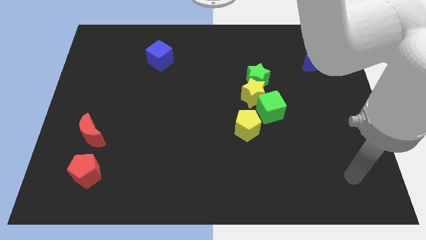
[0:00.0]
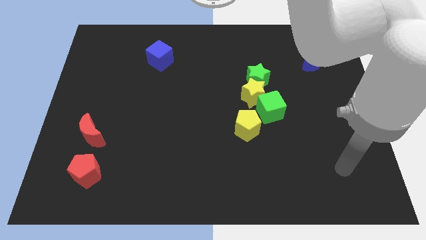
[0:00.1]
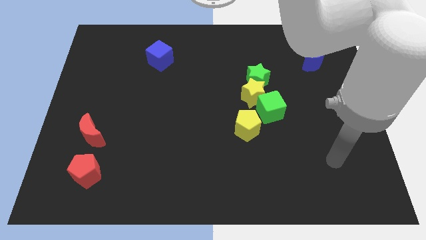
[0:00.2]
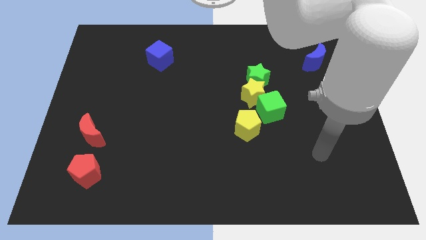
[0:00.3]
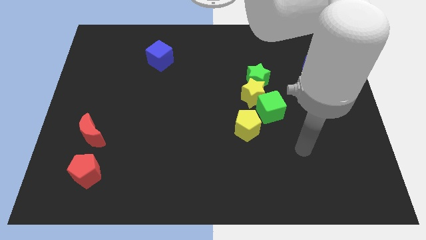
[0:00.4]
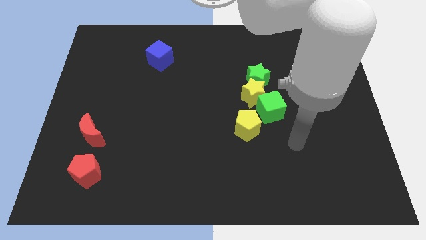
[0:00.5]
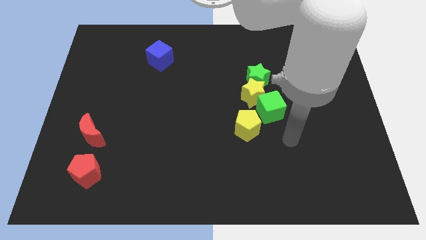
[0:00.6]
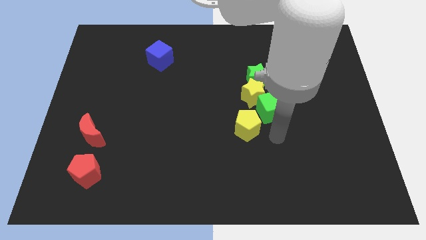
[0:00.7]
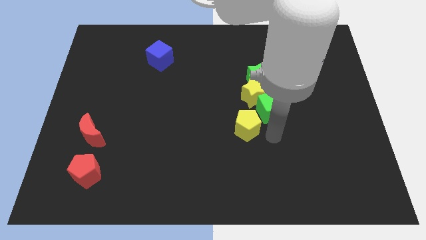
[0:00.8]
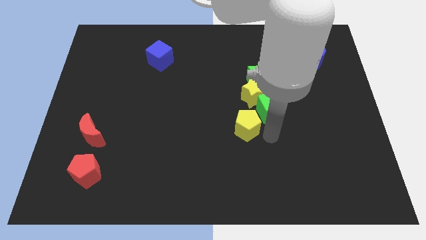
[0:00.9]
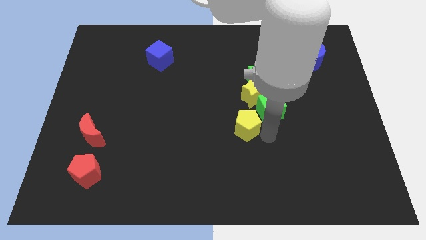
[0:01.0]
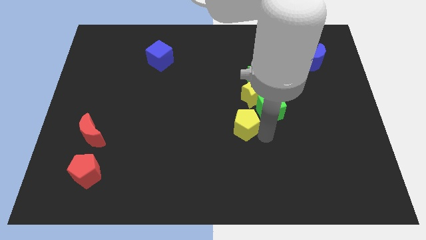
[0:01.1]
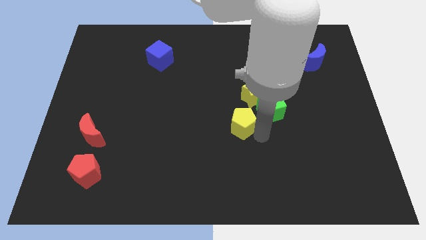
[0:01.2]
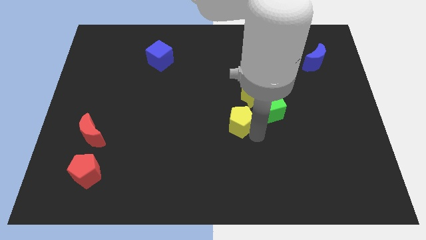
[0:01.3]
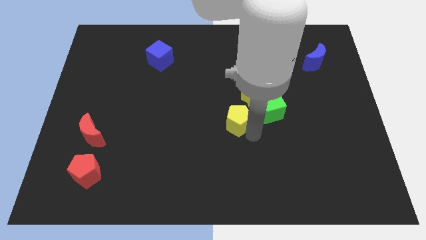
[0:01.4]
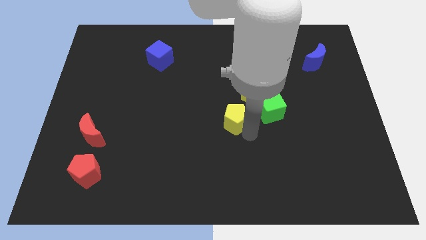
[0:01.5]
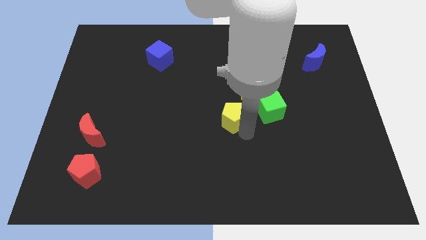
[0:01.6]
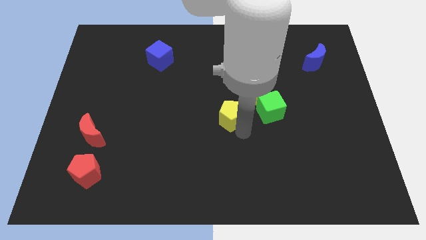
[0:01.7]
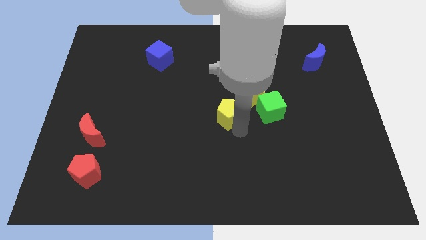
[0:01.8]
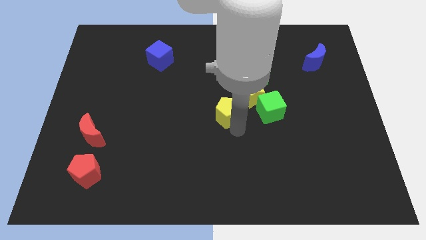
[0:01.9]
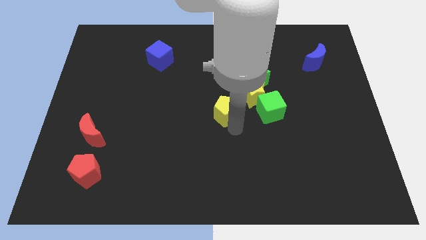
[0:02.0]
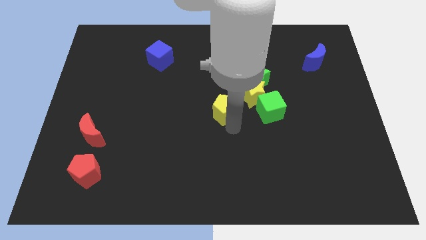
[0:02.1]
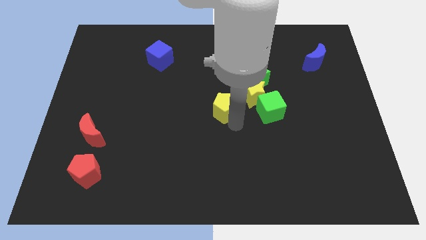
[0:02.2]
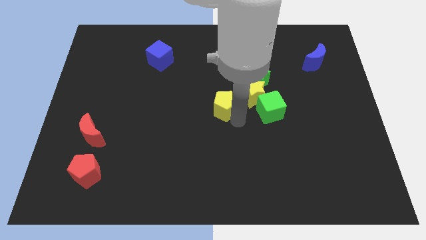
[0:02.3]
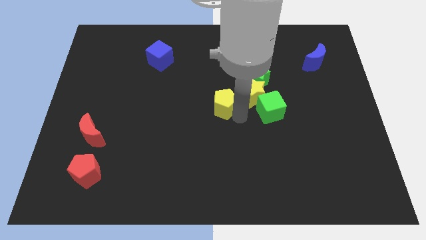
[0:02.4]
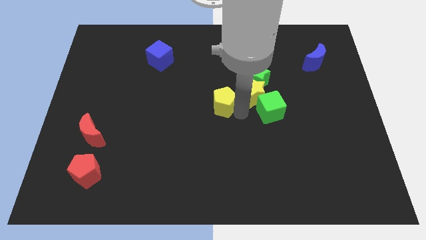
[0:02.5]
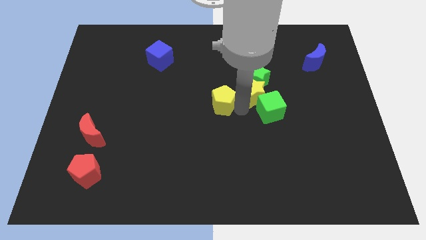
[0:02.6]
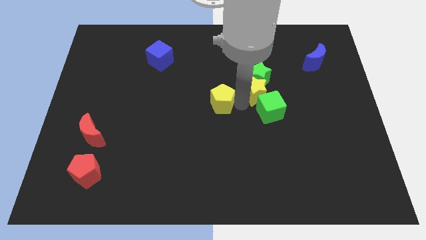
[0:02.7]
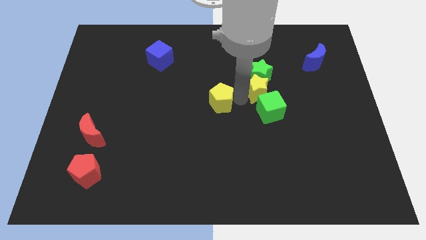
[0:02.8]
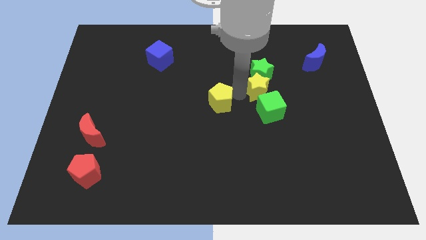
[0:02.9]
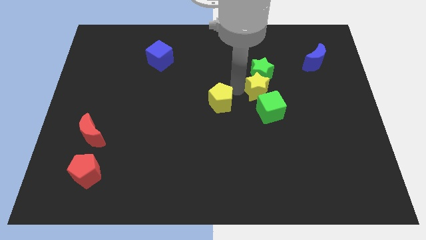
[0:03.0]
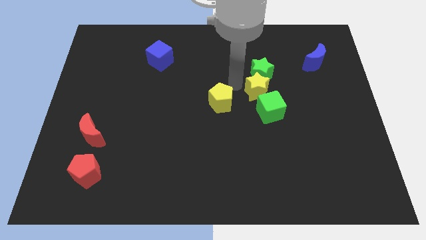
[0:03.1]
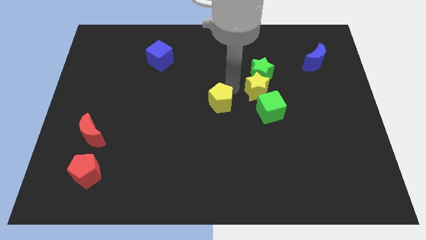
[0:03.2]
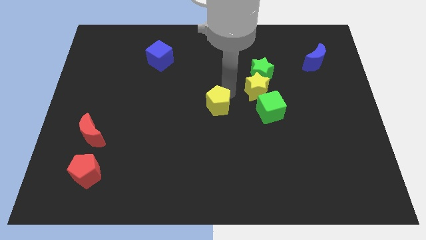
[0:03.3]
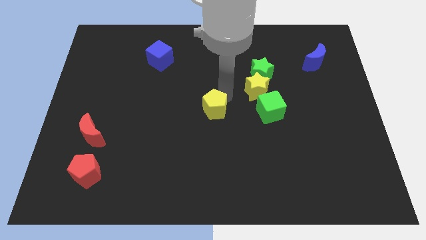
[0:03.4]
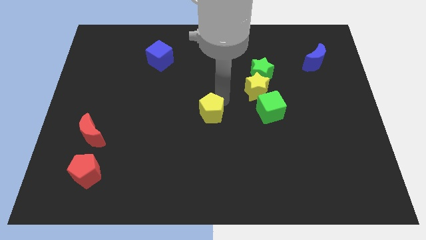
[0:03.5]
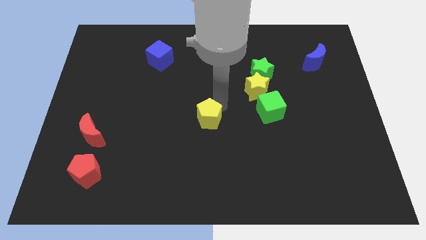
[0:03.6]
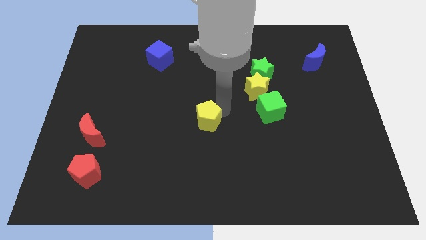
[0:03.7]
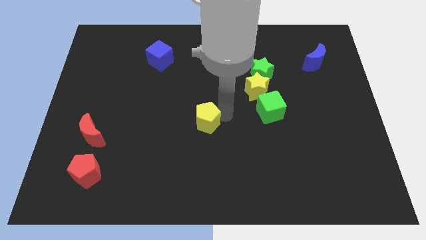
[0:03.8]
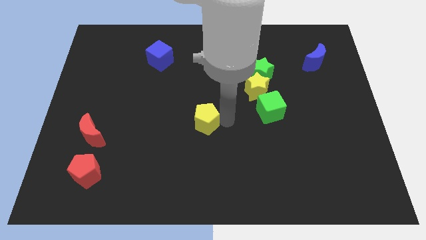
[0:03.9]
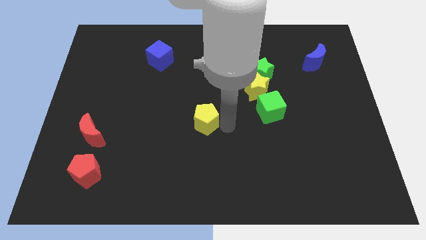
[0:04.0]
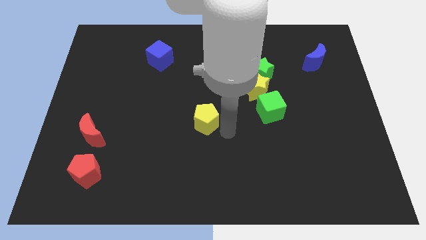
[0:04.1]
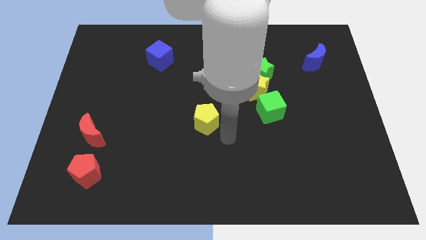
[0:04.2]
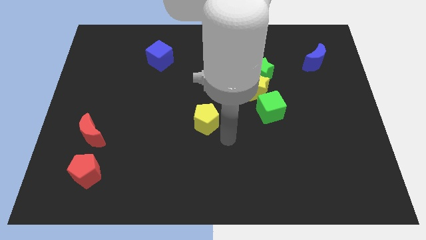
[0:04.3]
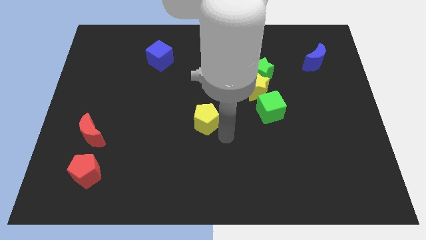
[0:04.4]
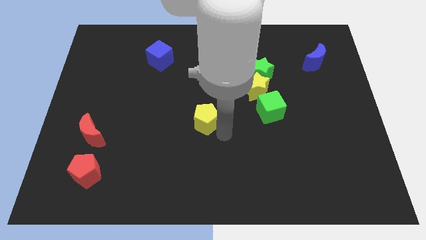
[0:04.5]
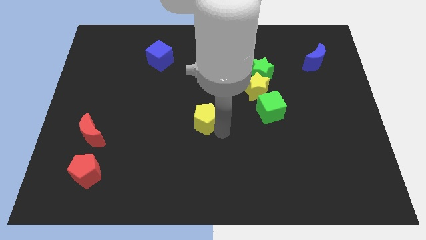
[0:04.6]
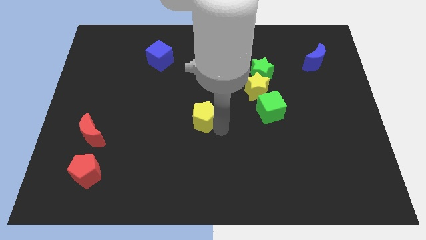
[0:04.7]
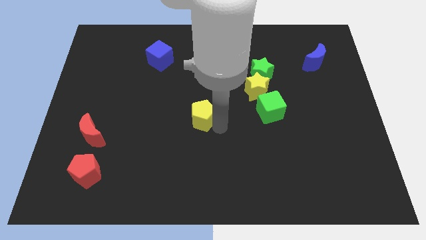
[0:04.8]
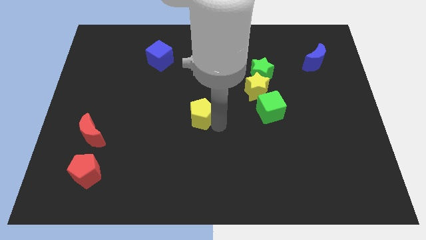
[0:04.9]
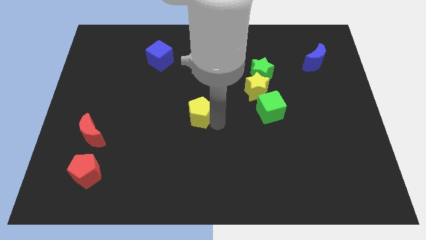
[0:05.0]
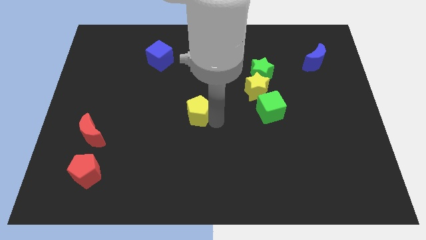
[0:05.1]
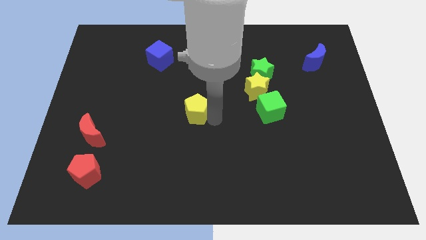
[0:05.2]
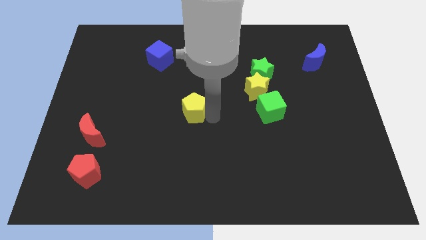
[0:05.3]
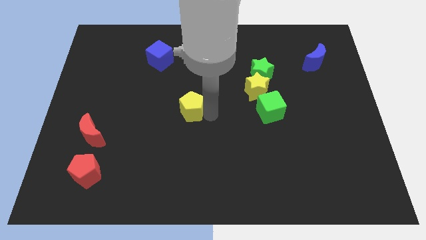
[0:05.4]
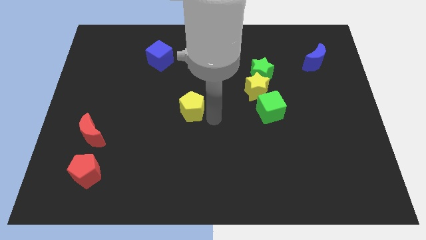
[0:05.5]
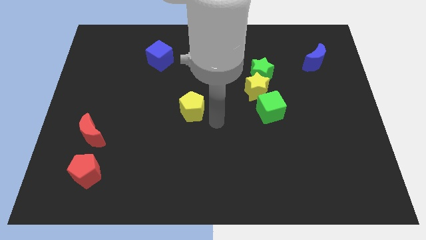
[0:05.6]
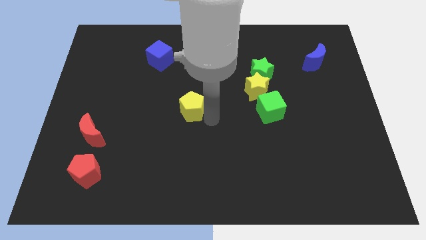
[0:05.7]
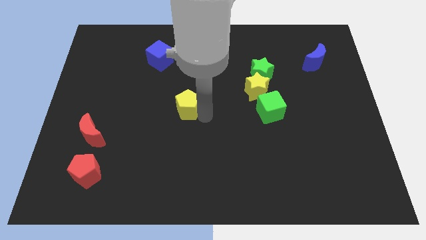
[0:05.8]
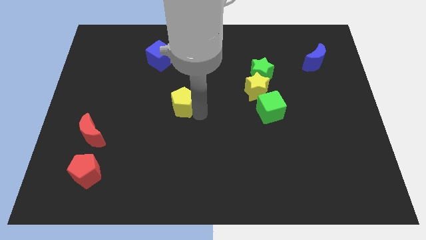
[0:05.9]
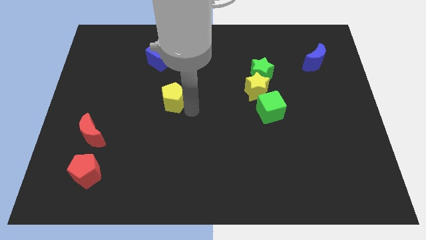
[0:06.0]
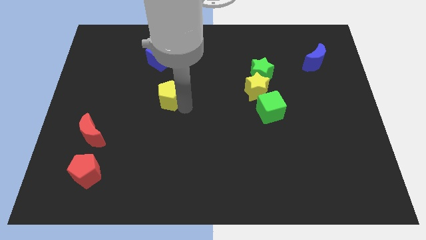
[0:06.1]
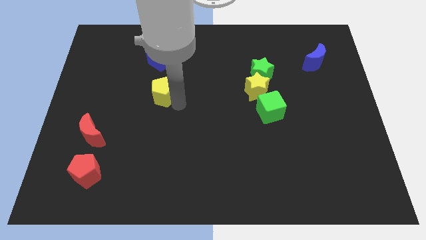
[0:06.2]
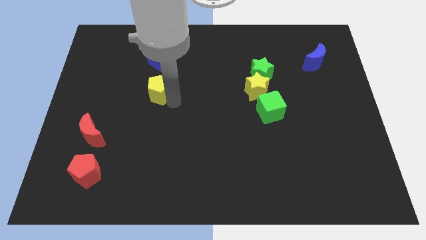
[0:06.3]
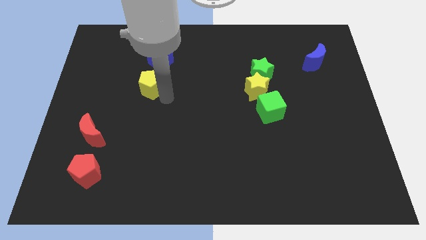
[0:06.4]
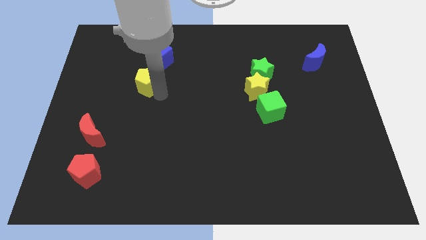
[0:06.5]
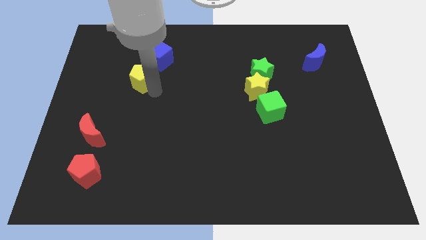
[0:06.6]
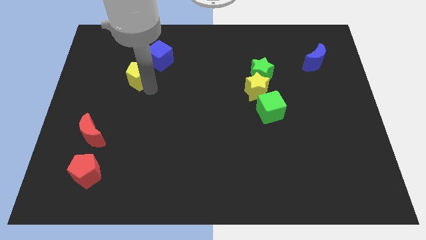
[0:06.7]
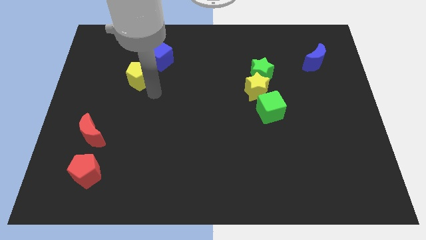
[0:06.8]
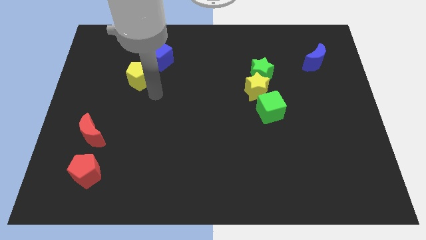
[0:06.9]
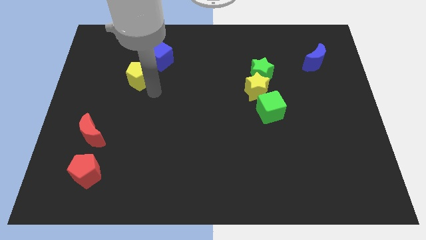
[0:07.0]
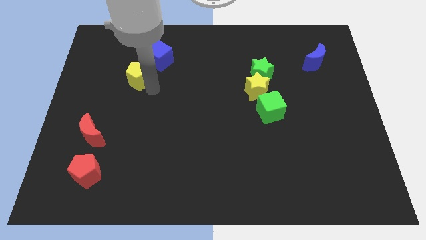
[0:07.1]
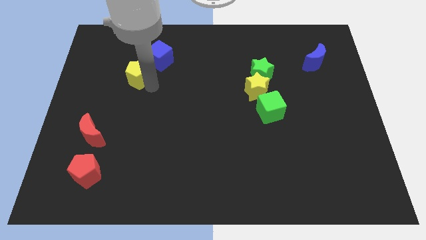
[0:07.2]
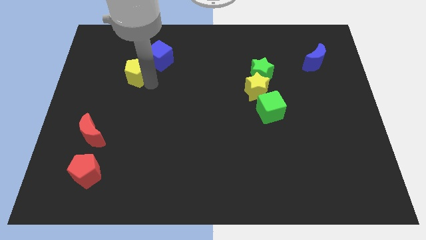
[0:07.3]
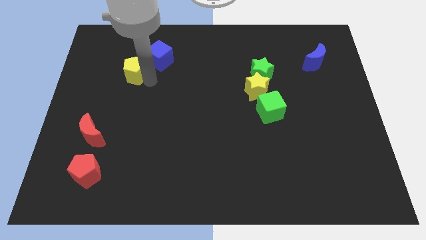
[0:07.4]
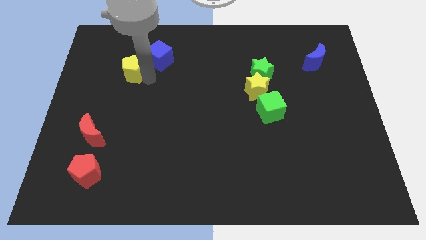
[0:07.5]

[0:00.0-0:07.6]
push the yellow pentagon left of the blue cube
